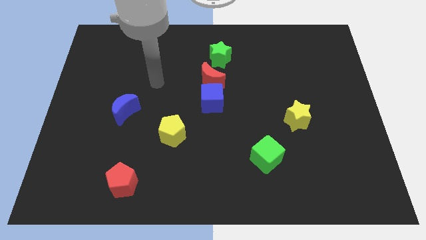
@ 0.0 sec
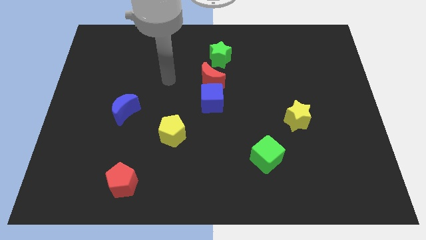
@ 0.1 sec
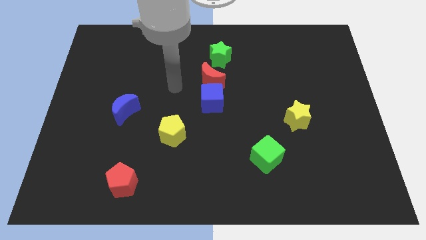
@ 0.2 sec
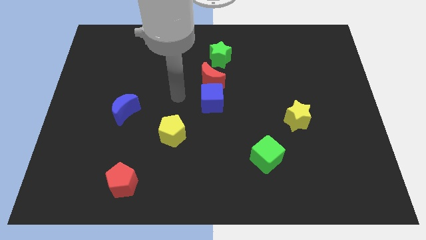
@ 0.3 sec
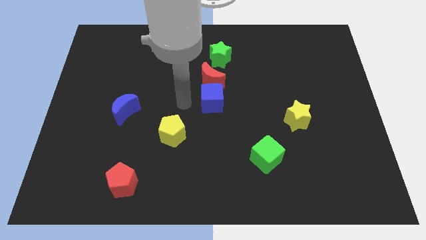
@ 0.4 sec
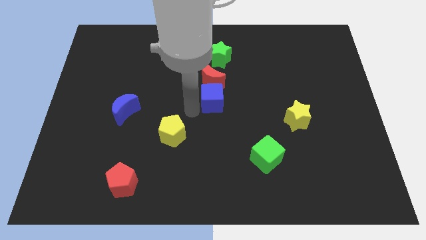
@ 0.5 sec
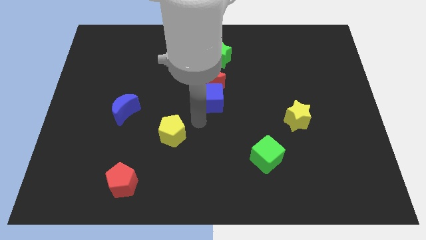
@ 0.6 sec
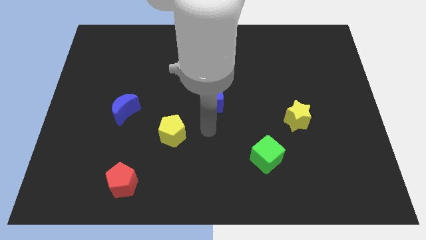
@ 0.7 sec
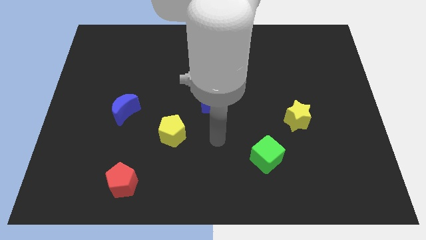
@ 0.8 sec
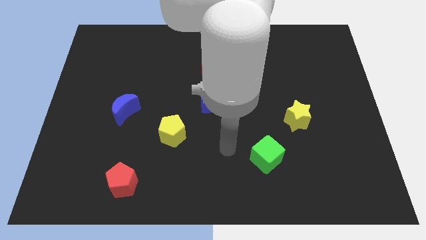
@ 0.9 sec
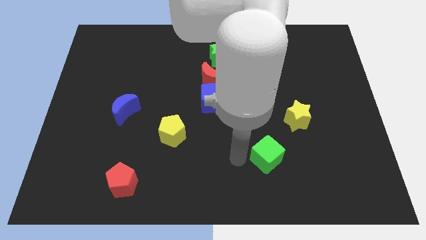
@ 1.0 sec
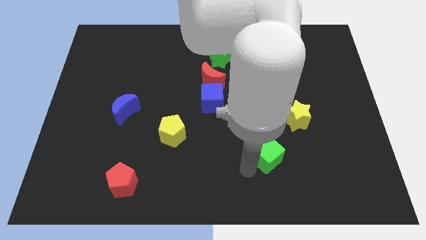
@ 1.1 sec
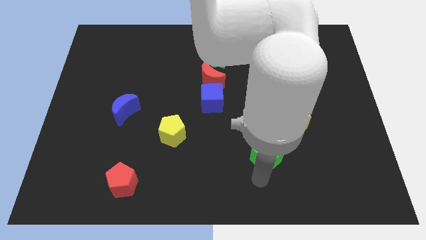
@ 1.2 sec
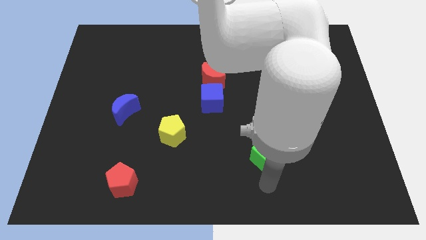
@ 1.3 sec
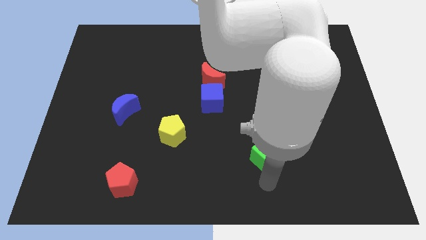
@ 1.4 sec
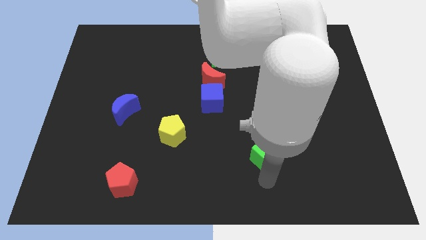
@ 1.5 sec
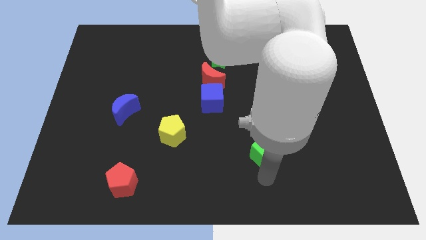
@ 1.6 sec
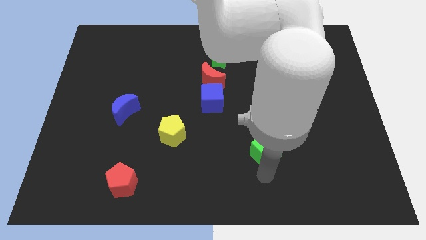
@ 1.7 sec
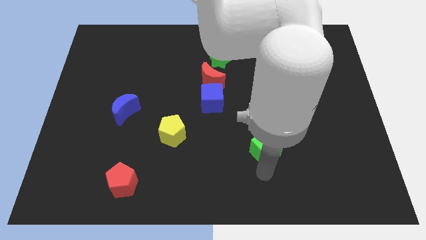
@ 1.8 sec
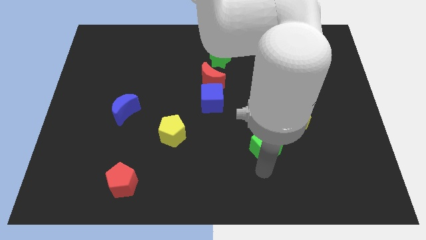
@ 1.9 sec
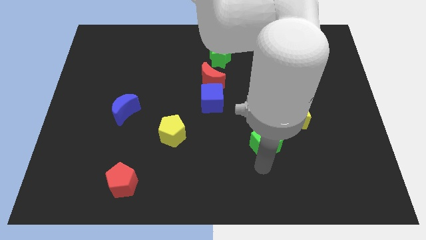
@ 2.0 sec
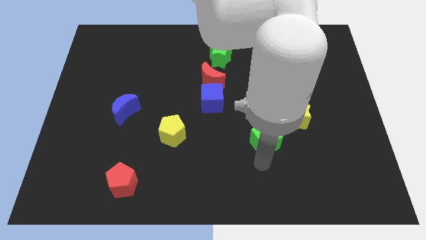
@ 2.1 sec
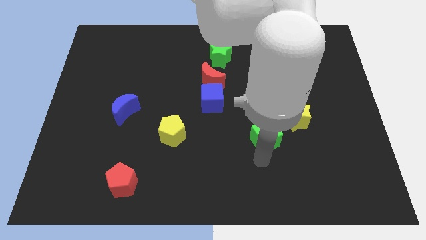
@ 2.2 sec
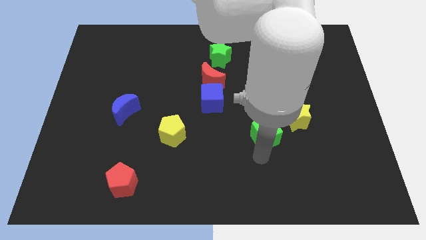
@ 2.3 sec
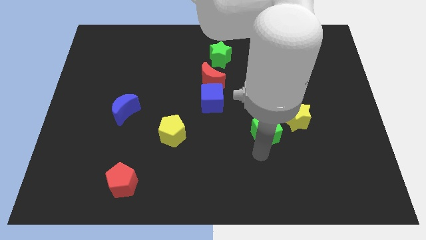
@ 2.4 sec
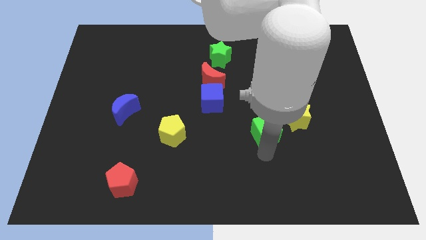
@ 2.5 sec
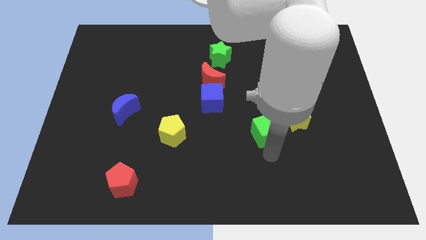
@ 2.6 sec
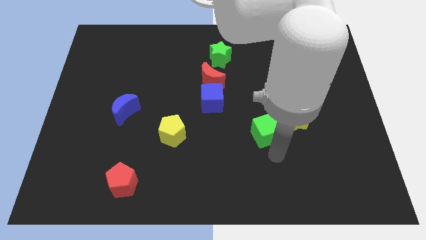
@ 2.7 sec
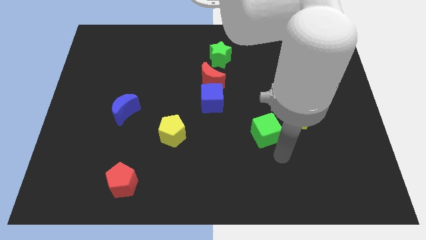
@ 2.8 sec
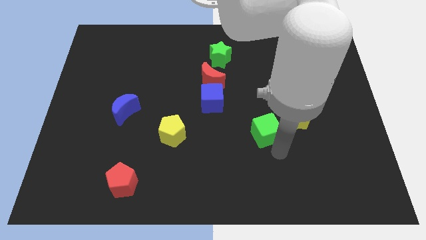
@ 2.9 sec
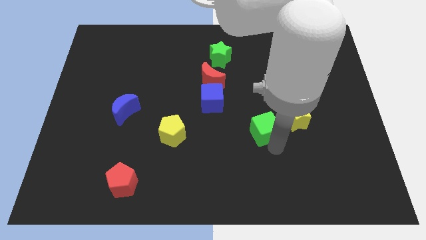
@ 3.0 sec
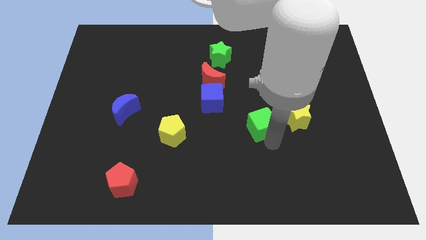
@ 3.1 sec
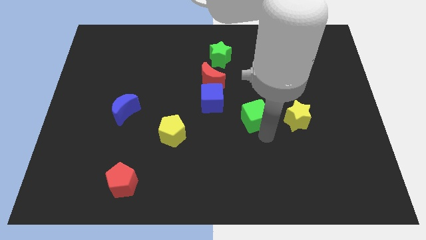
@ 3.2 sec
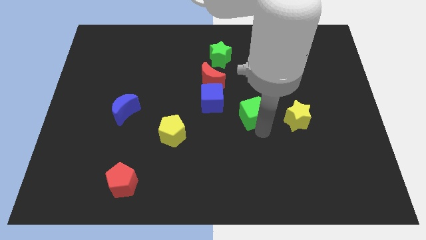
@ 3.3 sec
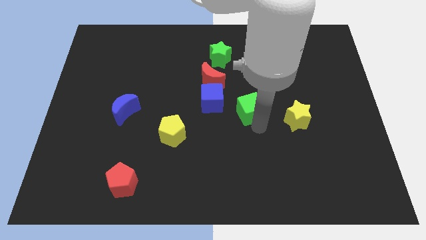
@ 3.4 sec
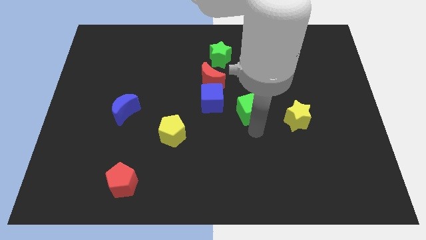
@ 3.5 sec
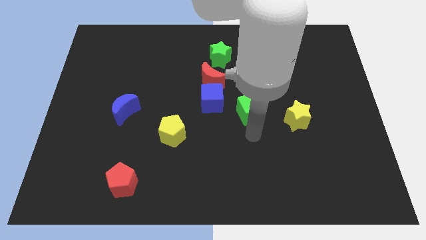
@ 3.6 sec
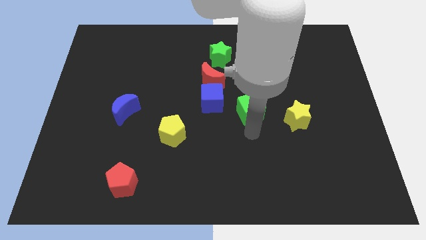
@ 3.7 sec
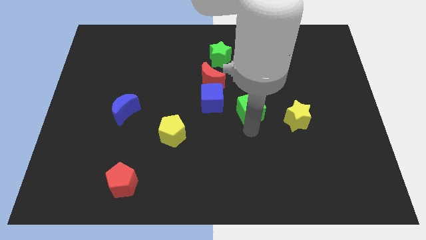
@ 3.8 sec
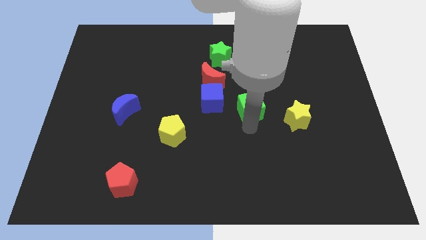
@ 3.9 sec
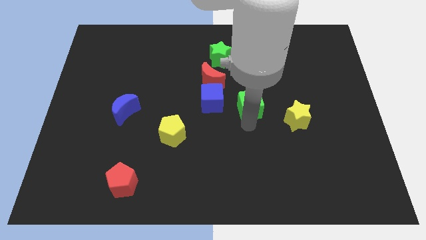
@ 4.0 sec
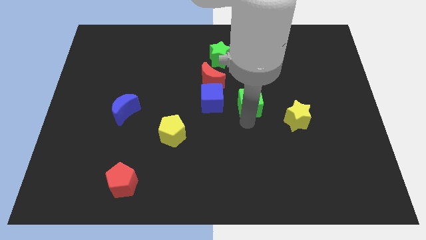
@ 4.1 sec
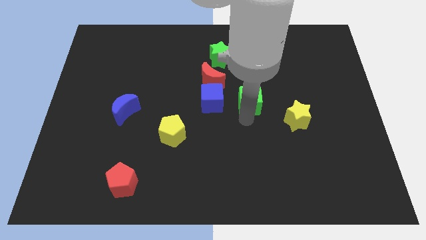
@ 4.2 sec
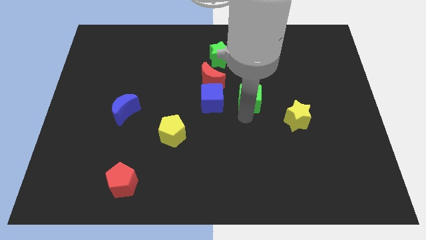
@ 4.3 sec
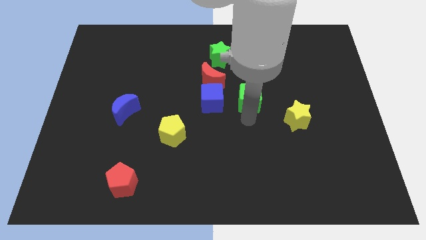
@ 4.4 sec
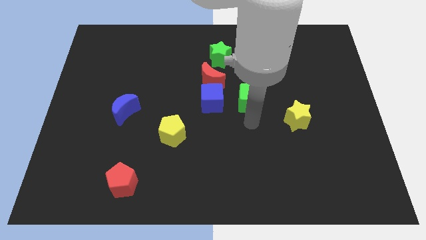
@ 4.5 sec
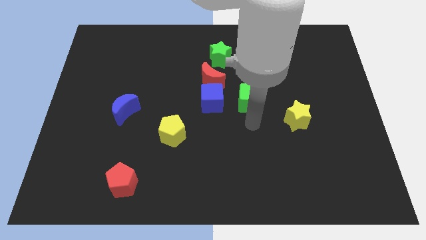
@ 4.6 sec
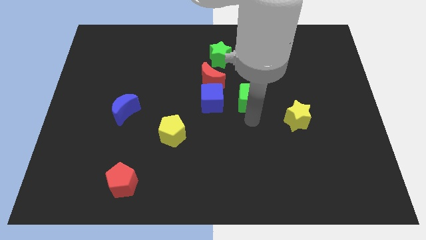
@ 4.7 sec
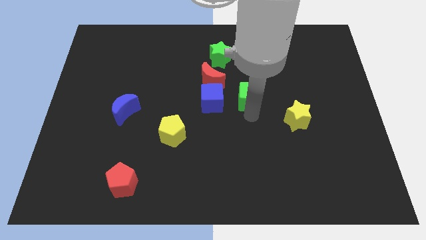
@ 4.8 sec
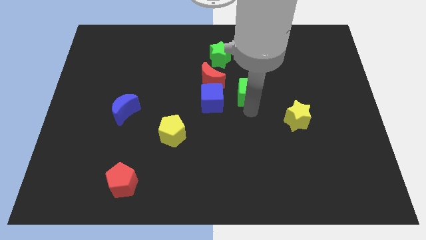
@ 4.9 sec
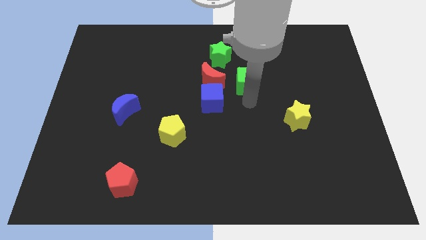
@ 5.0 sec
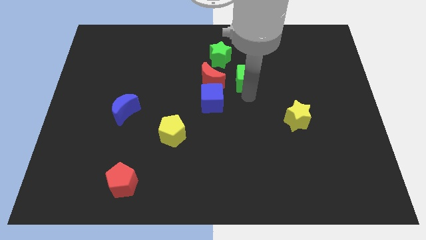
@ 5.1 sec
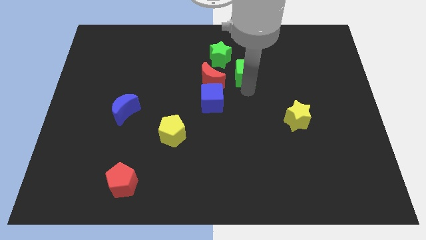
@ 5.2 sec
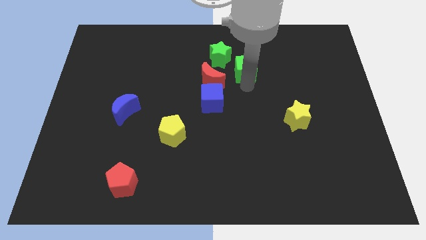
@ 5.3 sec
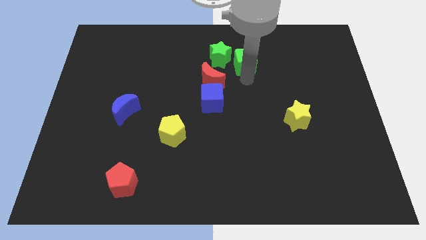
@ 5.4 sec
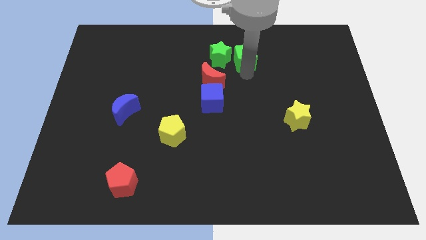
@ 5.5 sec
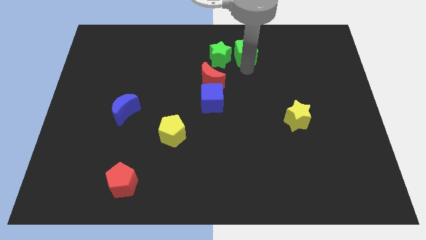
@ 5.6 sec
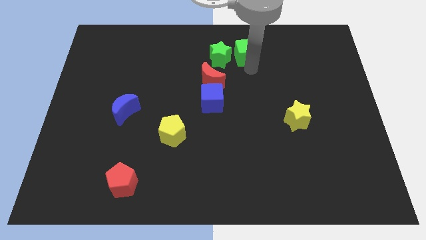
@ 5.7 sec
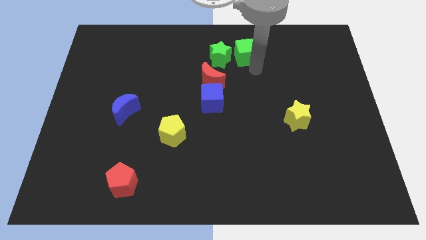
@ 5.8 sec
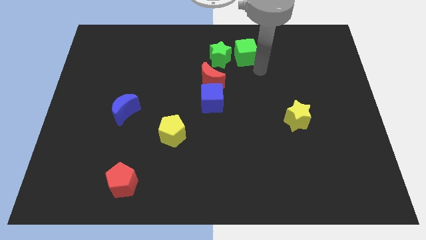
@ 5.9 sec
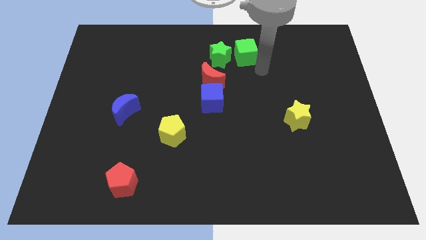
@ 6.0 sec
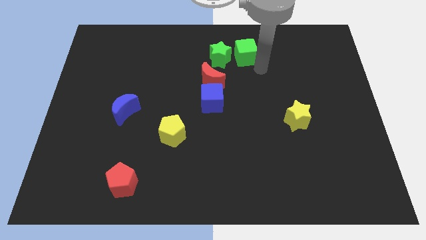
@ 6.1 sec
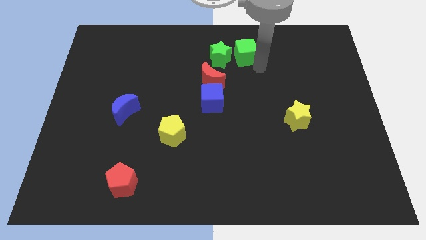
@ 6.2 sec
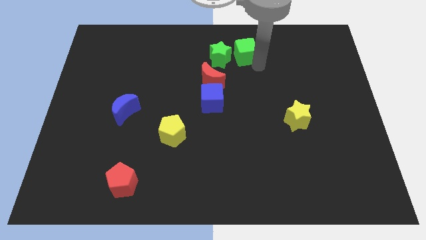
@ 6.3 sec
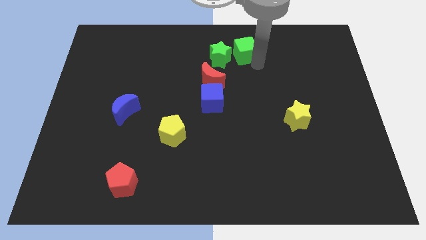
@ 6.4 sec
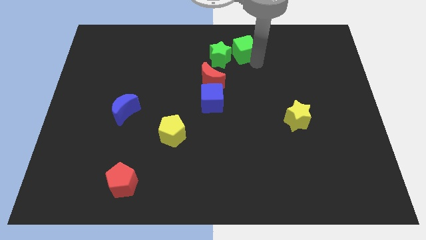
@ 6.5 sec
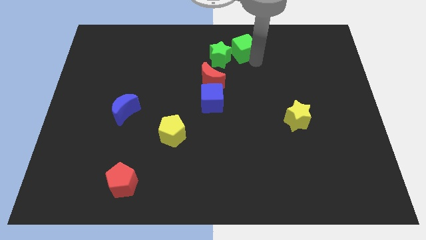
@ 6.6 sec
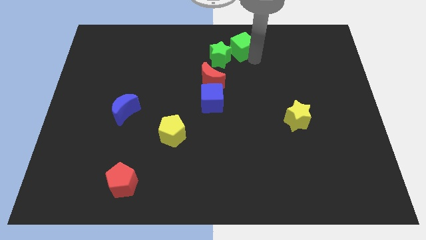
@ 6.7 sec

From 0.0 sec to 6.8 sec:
push the green cube to the top
